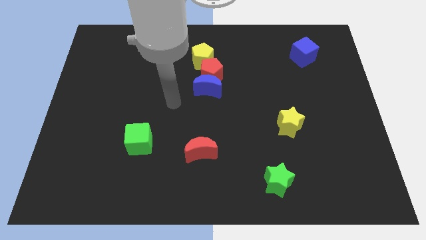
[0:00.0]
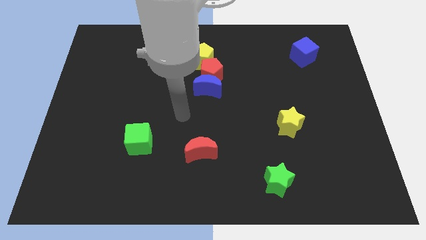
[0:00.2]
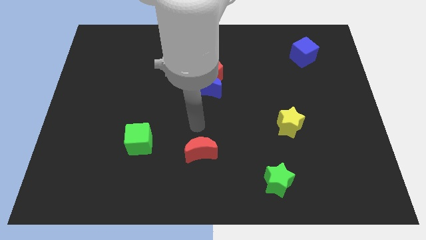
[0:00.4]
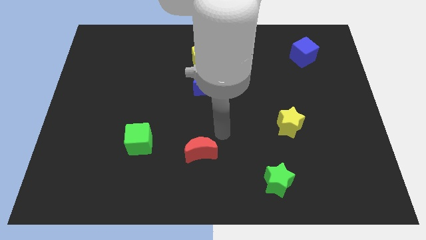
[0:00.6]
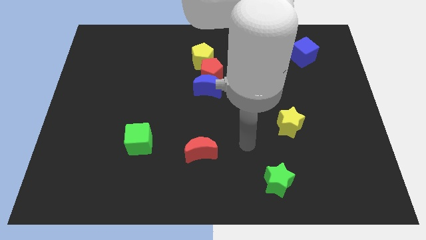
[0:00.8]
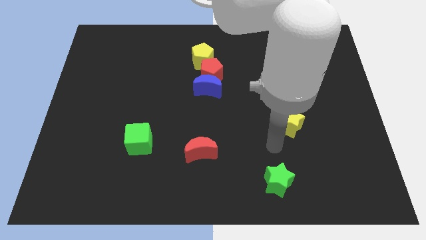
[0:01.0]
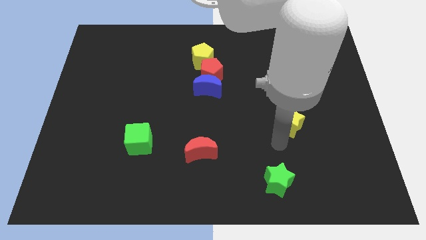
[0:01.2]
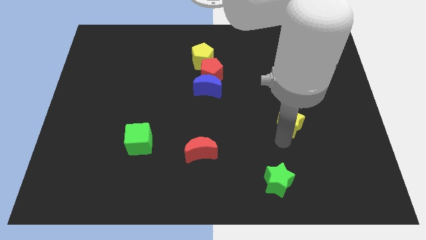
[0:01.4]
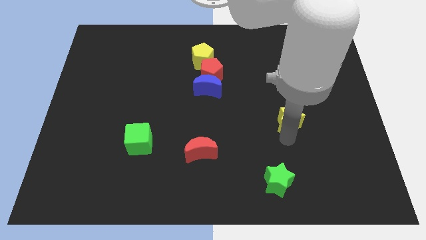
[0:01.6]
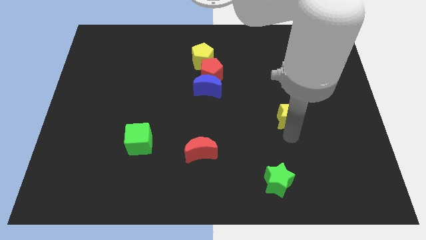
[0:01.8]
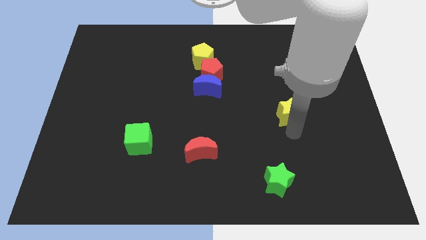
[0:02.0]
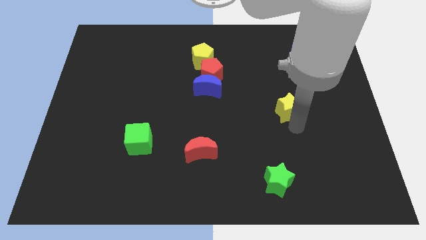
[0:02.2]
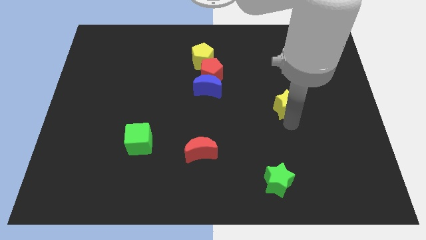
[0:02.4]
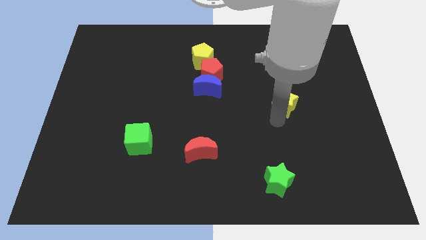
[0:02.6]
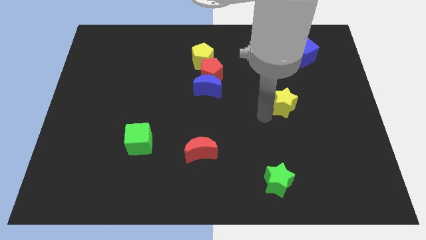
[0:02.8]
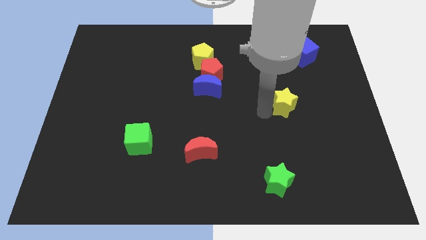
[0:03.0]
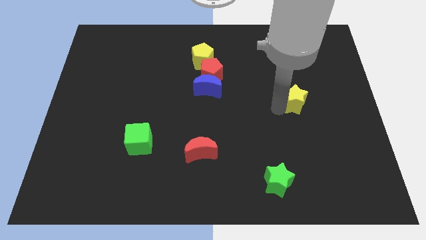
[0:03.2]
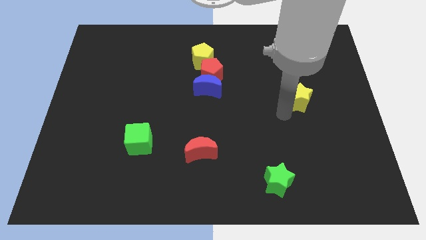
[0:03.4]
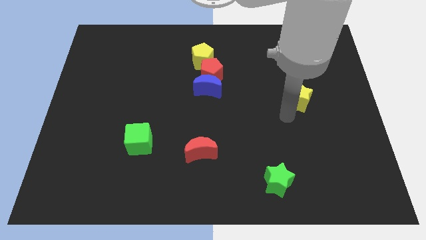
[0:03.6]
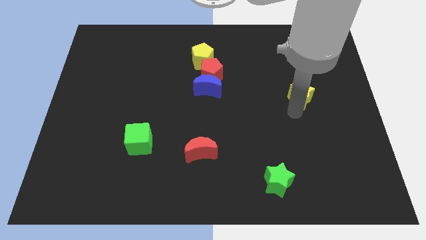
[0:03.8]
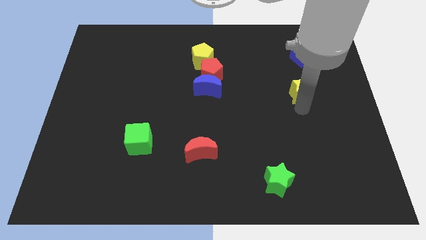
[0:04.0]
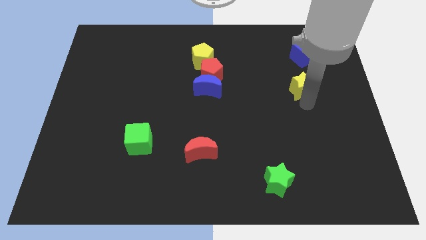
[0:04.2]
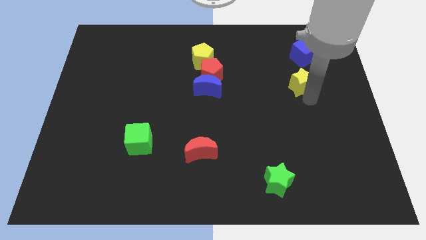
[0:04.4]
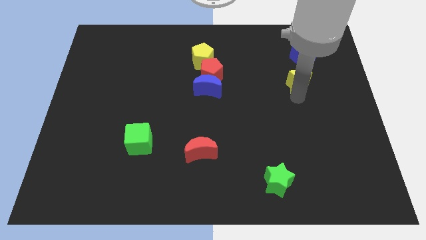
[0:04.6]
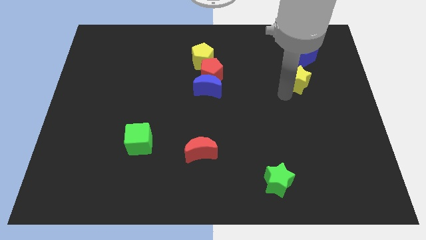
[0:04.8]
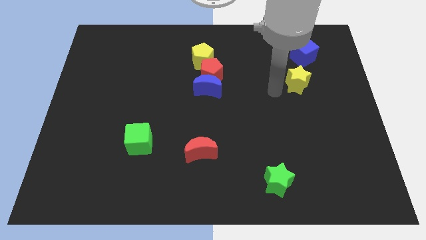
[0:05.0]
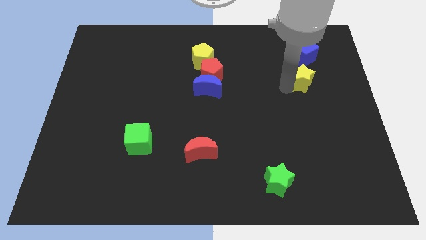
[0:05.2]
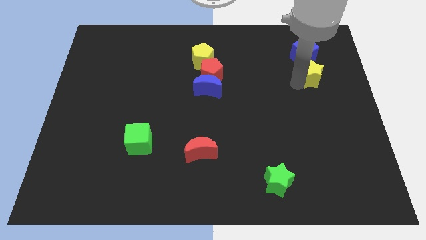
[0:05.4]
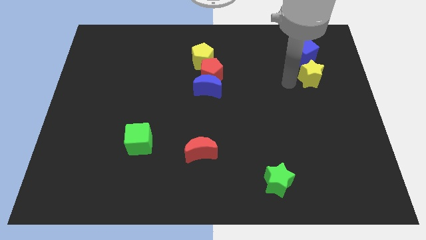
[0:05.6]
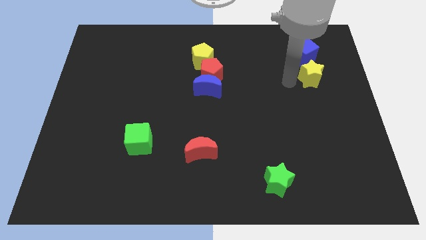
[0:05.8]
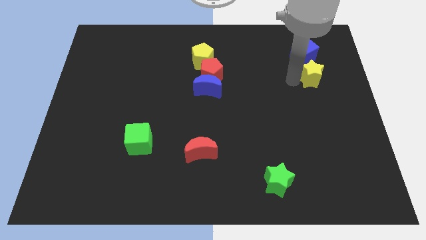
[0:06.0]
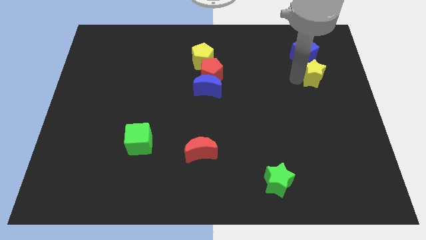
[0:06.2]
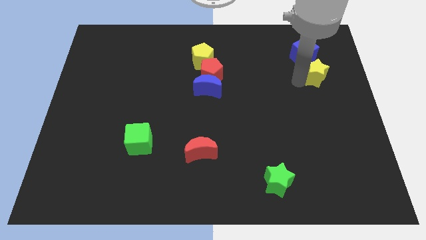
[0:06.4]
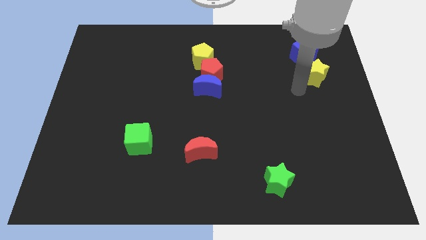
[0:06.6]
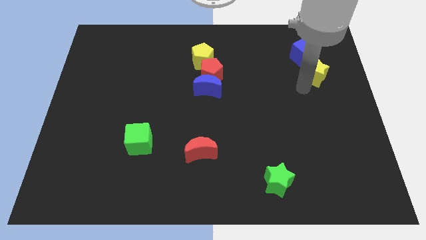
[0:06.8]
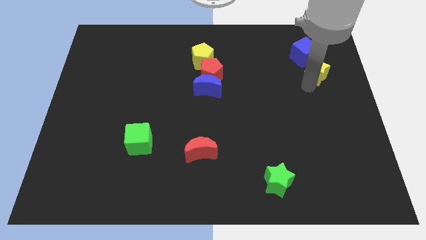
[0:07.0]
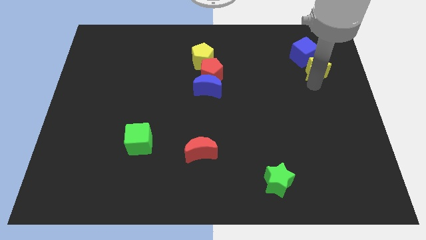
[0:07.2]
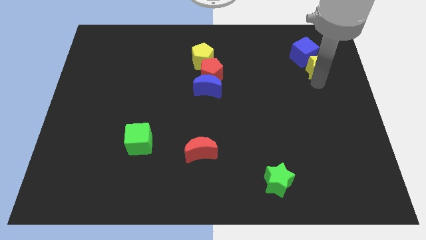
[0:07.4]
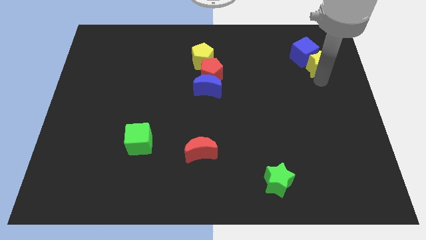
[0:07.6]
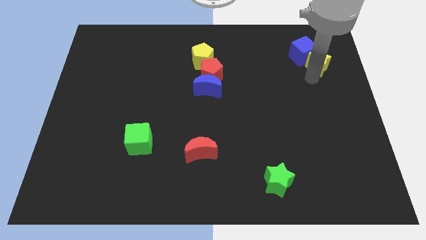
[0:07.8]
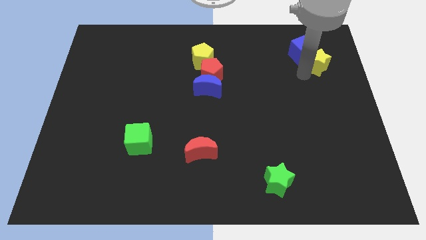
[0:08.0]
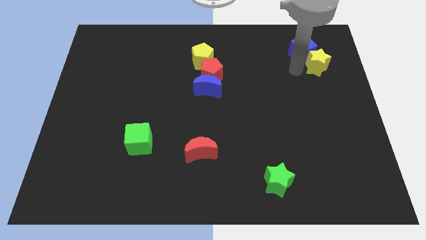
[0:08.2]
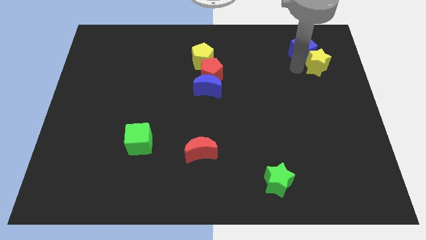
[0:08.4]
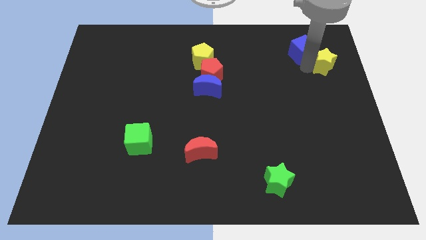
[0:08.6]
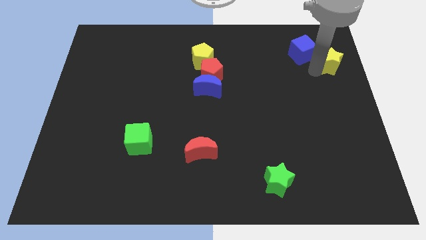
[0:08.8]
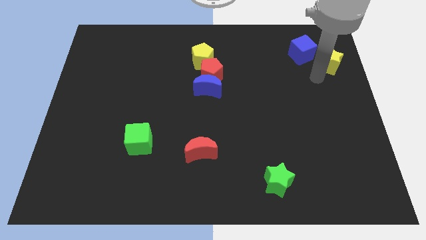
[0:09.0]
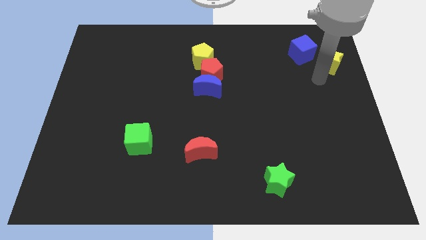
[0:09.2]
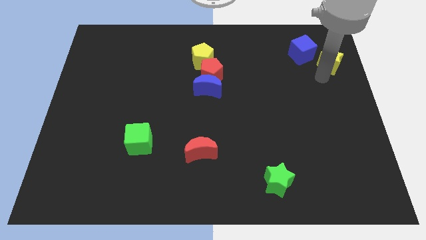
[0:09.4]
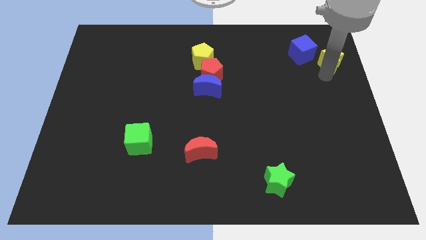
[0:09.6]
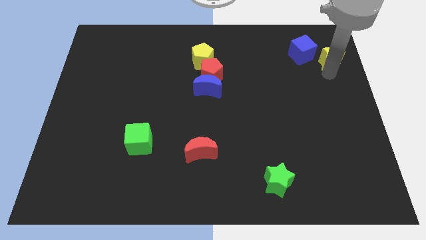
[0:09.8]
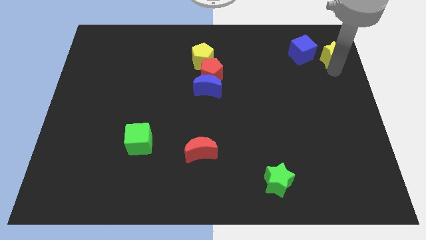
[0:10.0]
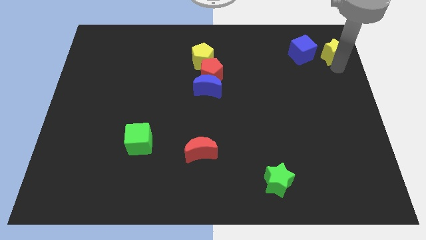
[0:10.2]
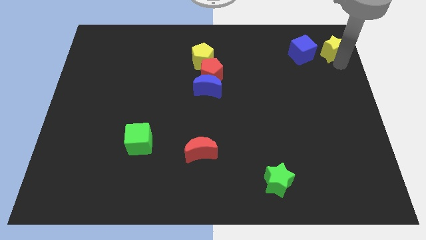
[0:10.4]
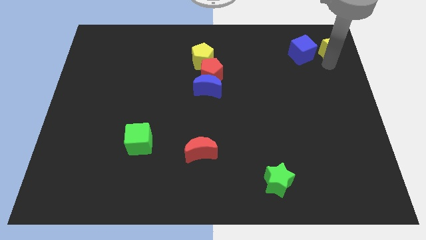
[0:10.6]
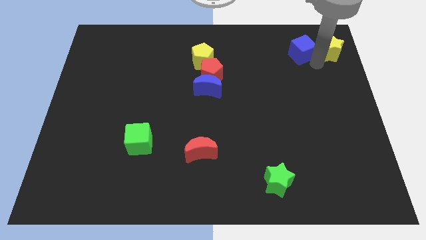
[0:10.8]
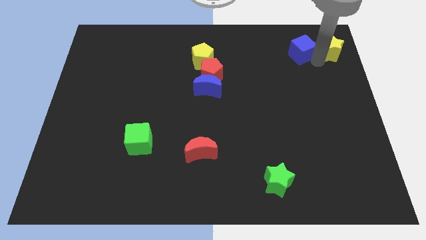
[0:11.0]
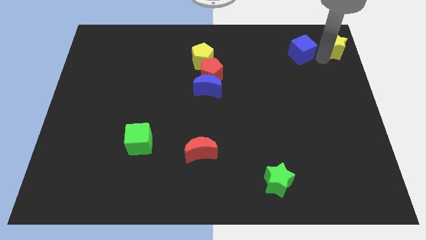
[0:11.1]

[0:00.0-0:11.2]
move the yellow star to the upper right corner
